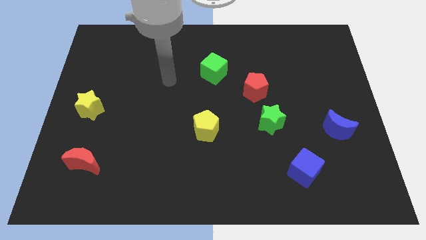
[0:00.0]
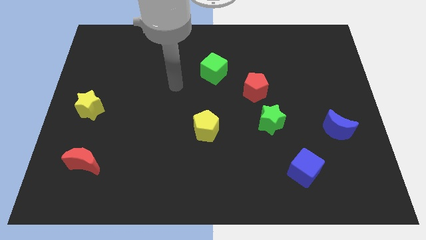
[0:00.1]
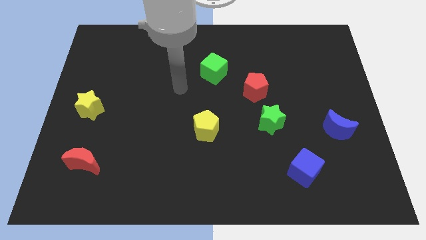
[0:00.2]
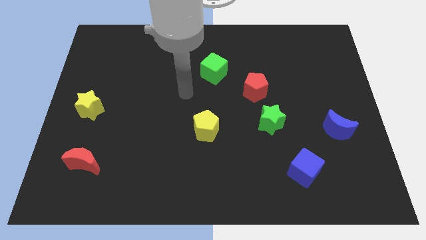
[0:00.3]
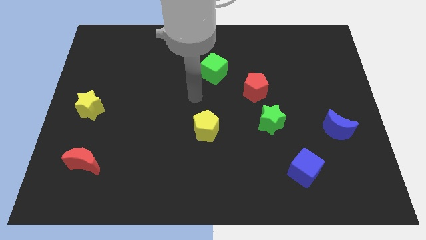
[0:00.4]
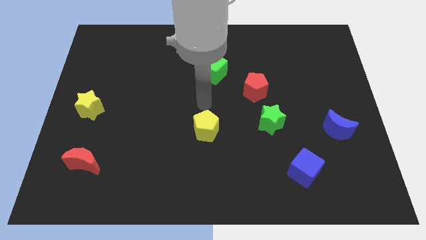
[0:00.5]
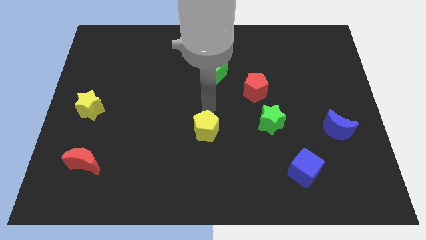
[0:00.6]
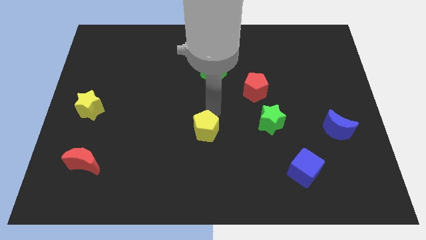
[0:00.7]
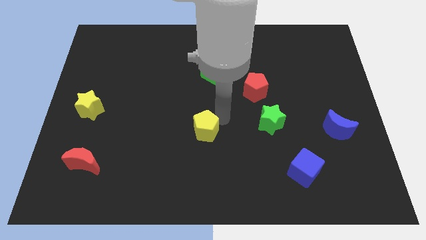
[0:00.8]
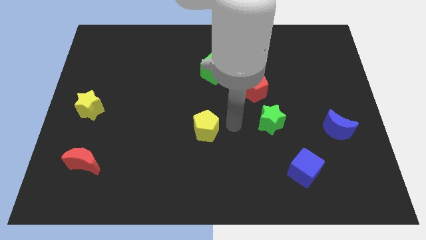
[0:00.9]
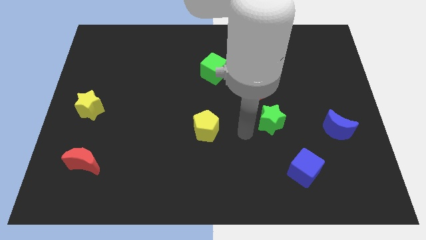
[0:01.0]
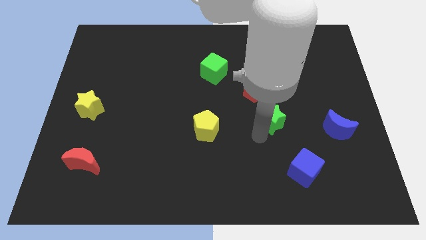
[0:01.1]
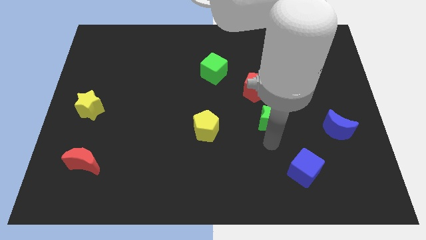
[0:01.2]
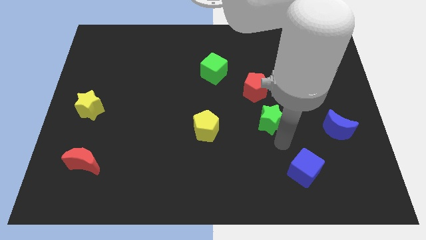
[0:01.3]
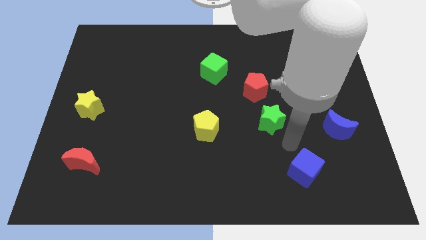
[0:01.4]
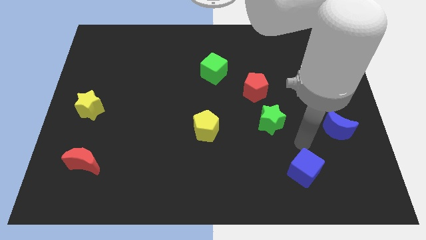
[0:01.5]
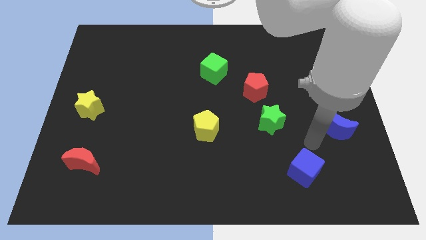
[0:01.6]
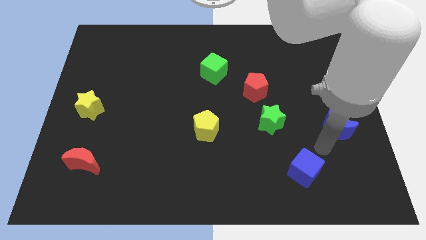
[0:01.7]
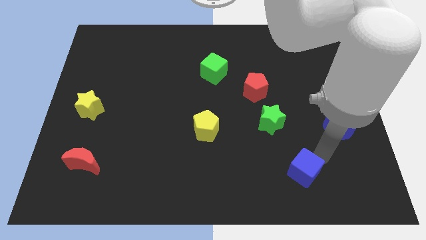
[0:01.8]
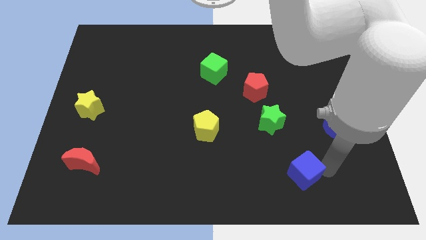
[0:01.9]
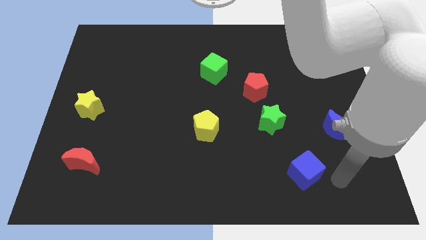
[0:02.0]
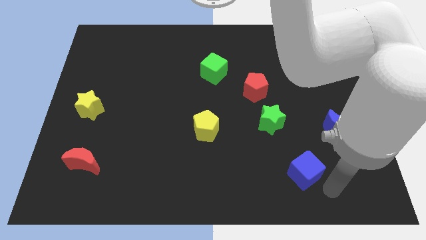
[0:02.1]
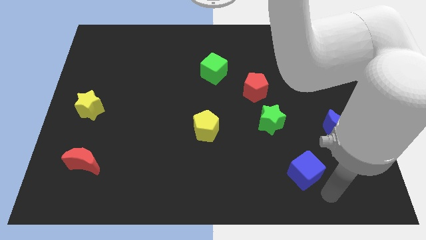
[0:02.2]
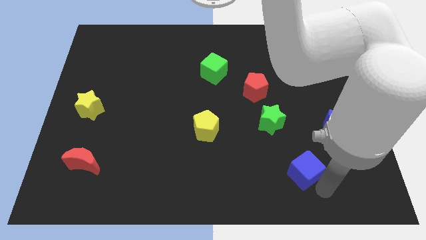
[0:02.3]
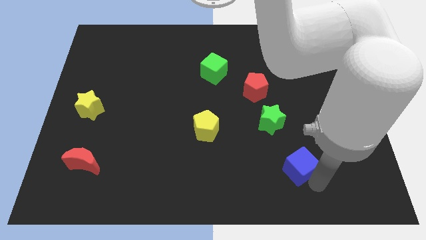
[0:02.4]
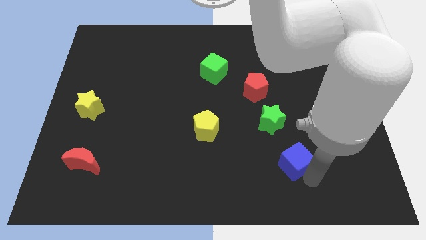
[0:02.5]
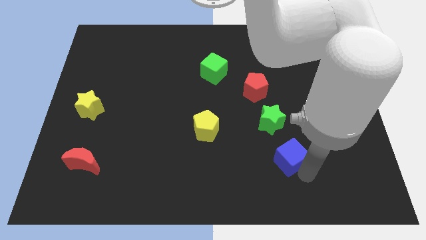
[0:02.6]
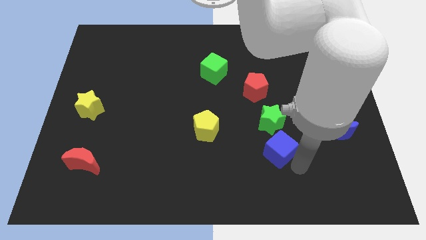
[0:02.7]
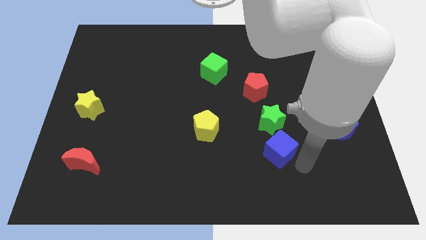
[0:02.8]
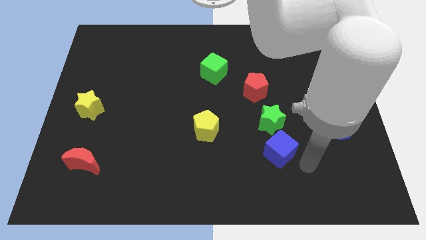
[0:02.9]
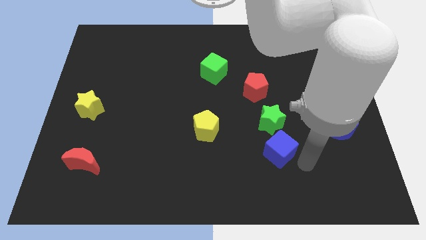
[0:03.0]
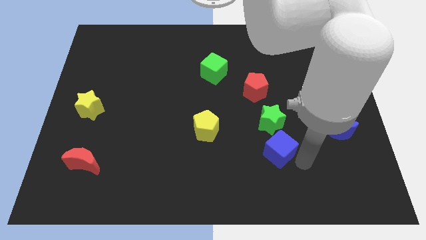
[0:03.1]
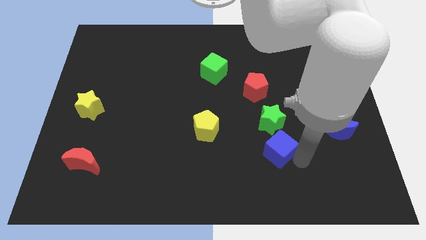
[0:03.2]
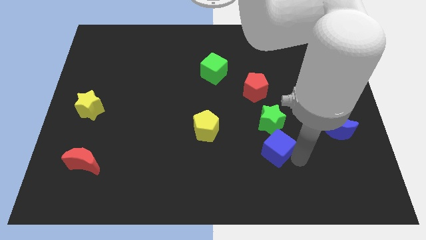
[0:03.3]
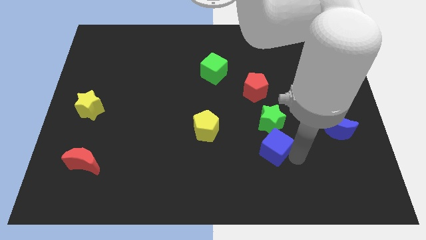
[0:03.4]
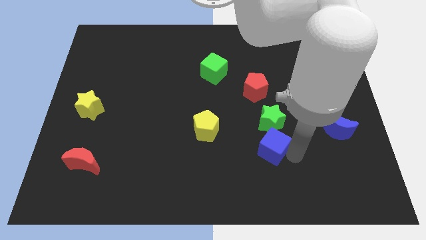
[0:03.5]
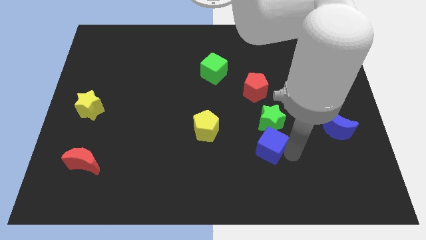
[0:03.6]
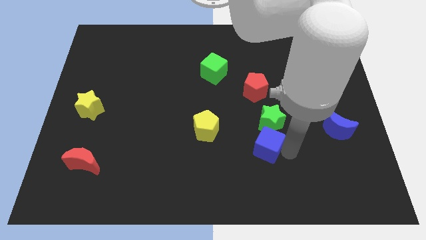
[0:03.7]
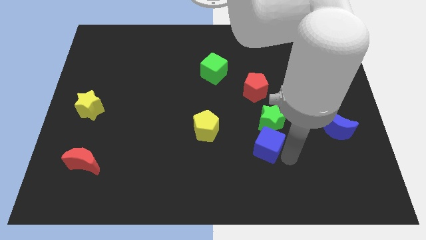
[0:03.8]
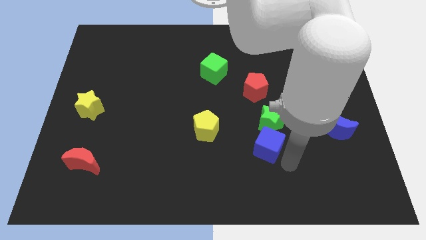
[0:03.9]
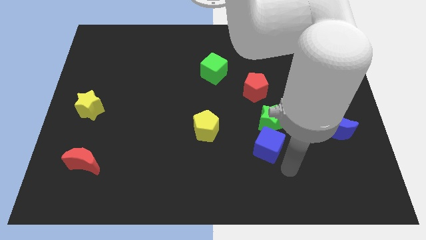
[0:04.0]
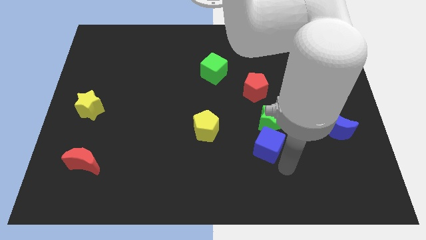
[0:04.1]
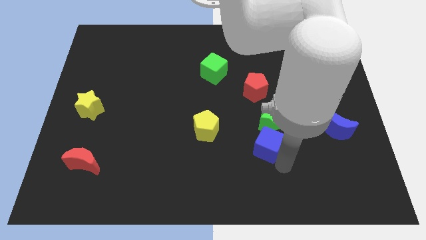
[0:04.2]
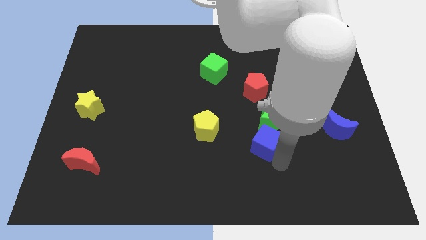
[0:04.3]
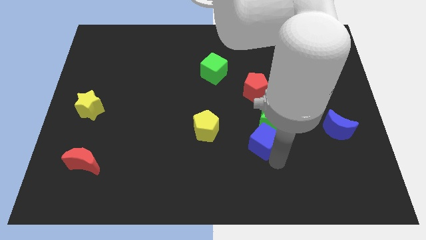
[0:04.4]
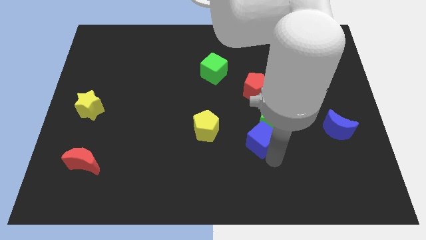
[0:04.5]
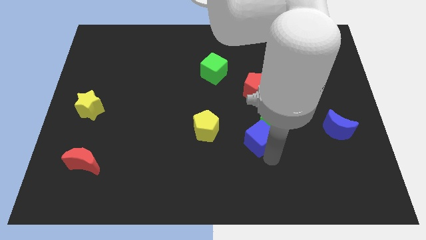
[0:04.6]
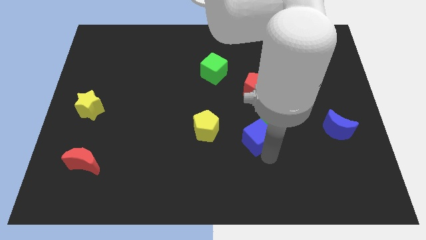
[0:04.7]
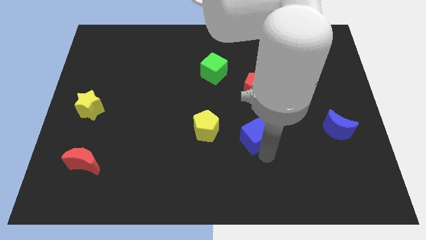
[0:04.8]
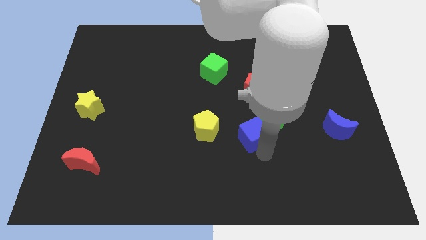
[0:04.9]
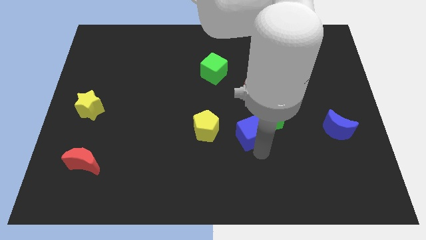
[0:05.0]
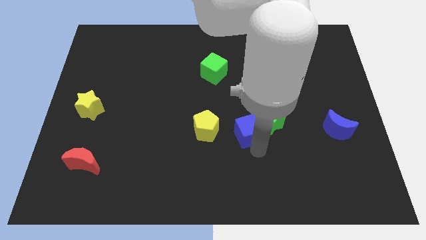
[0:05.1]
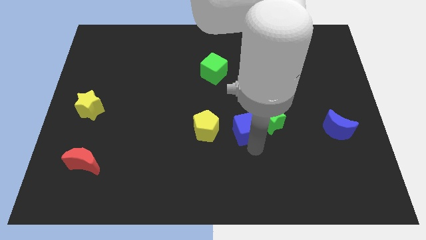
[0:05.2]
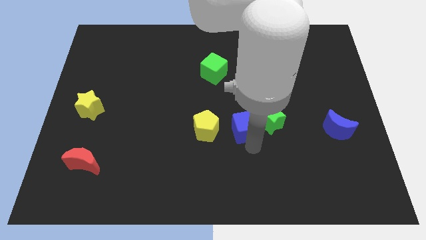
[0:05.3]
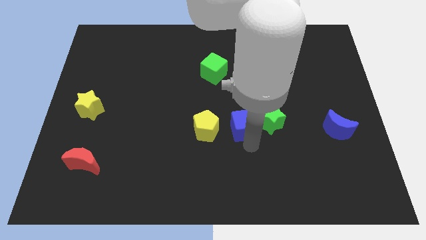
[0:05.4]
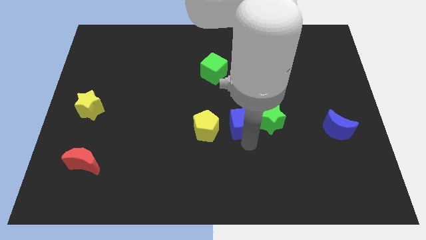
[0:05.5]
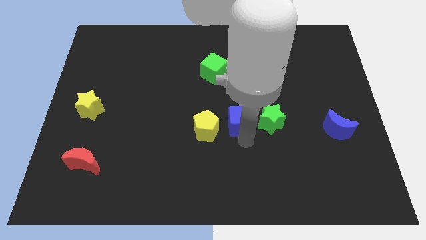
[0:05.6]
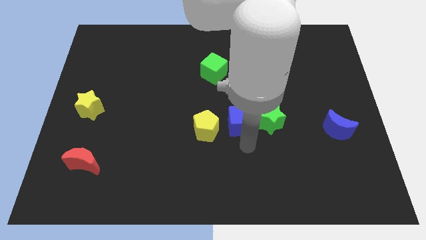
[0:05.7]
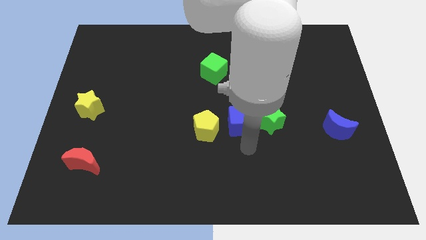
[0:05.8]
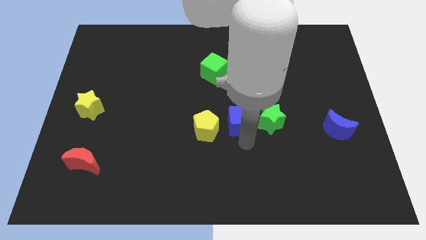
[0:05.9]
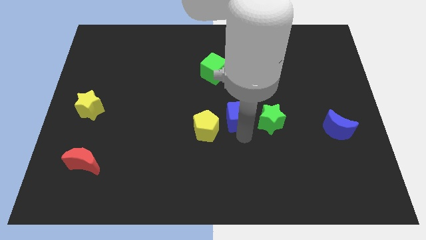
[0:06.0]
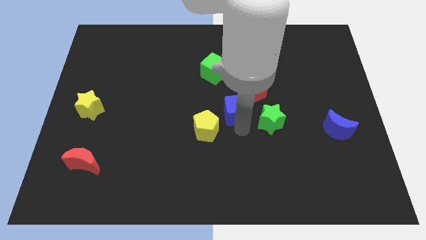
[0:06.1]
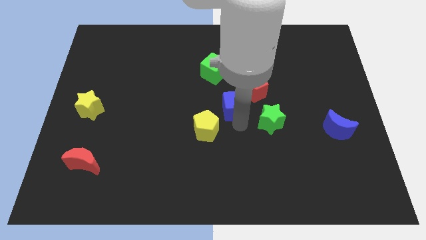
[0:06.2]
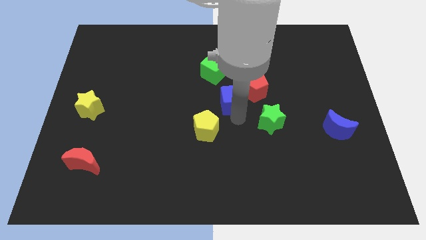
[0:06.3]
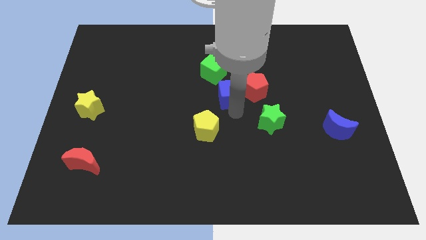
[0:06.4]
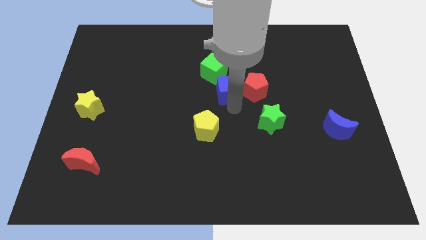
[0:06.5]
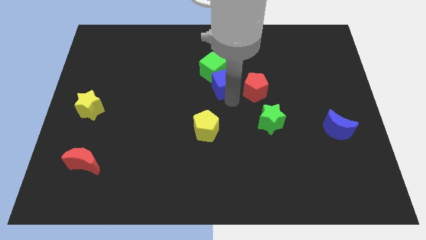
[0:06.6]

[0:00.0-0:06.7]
put the blue cube to the green cube

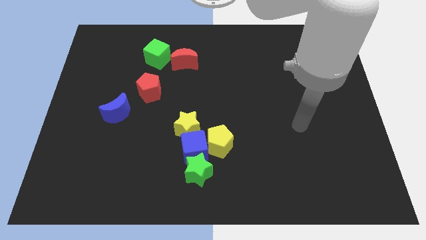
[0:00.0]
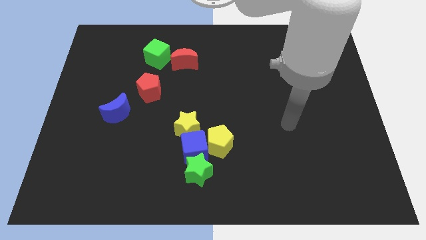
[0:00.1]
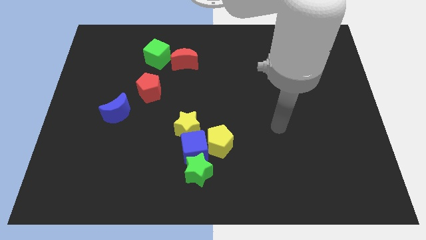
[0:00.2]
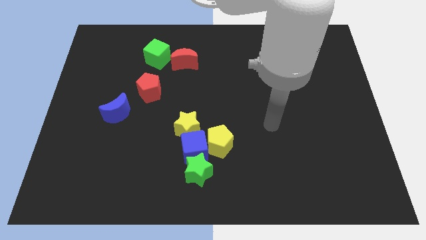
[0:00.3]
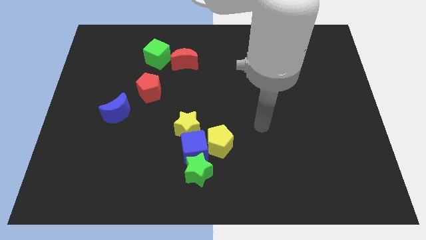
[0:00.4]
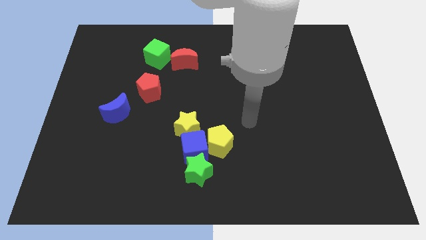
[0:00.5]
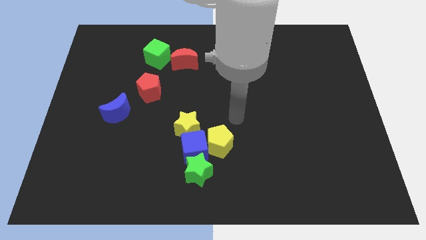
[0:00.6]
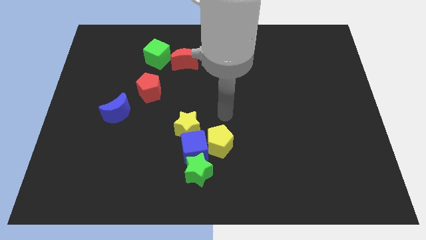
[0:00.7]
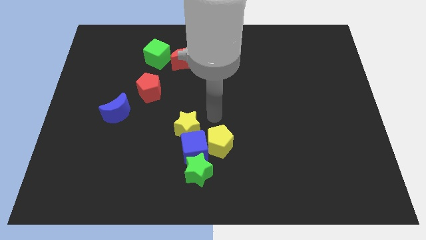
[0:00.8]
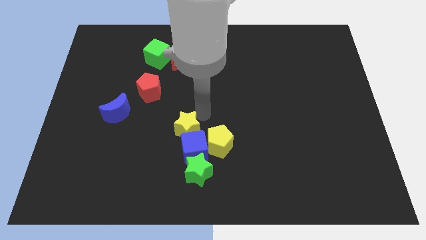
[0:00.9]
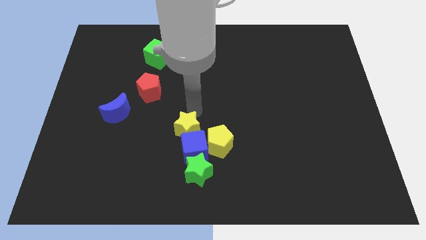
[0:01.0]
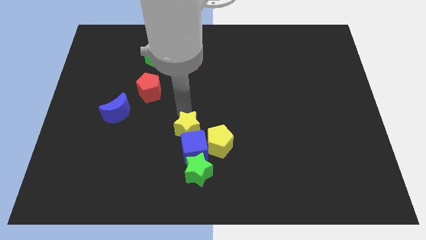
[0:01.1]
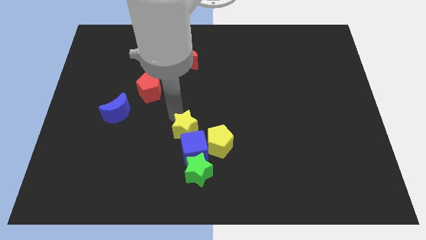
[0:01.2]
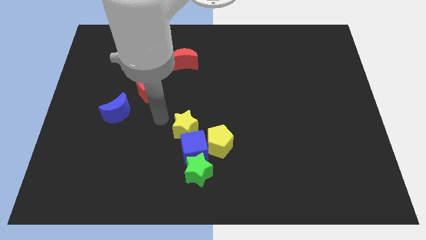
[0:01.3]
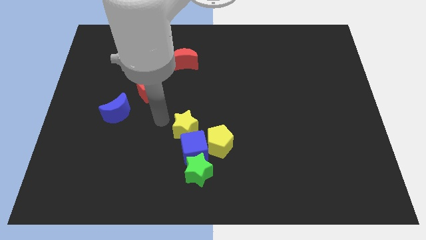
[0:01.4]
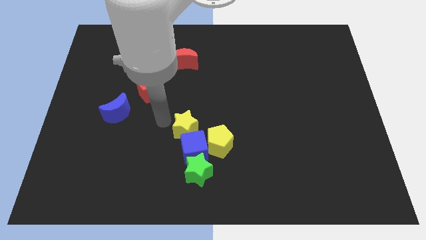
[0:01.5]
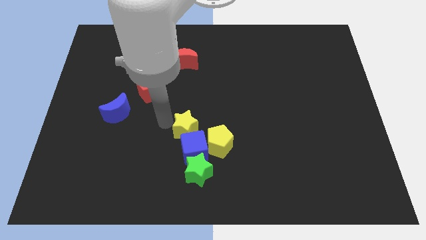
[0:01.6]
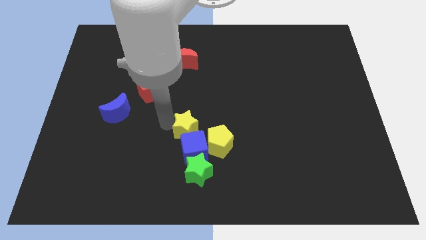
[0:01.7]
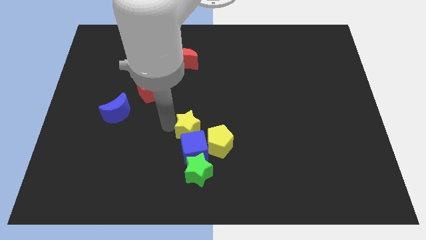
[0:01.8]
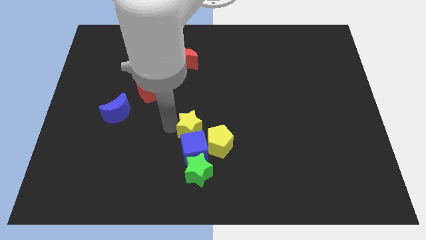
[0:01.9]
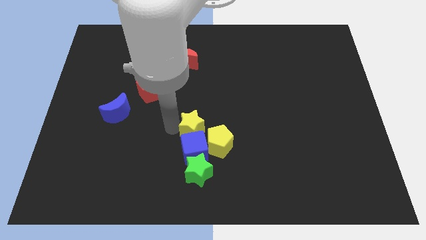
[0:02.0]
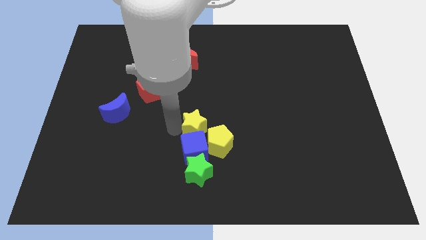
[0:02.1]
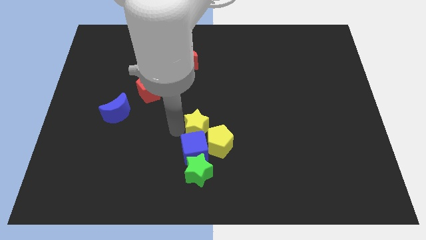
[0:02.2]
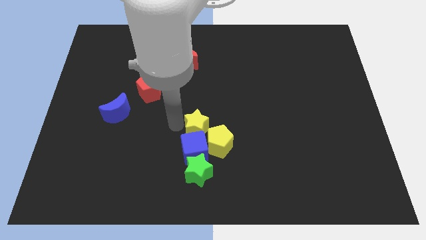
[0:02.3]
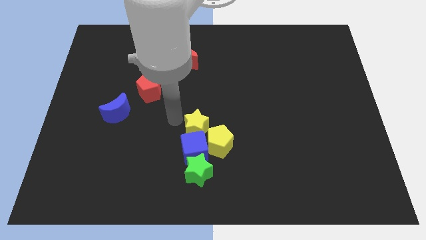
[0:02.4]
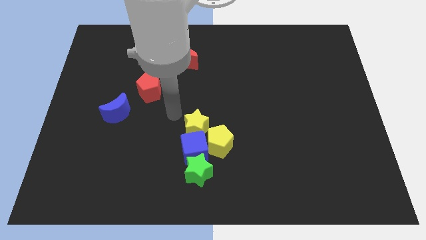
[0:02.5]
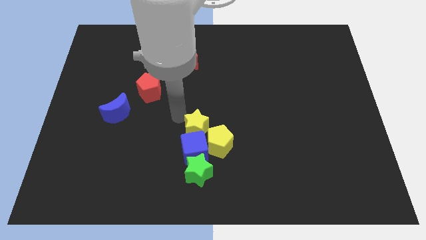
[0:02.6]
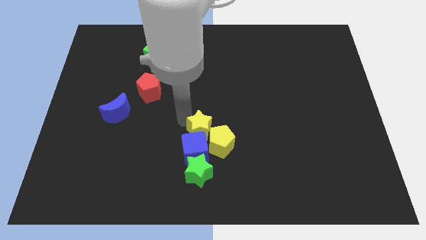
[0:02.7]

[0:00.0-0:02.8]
push the yellow star to the yellow pentagon
